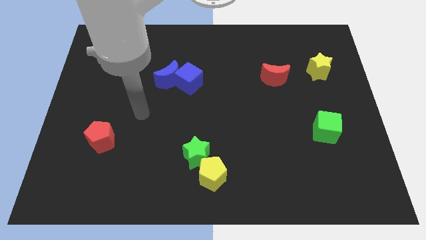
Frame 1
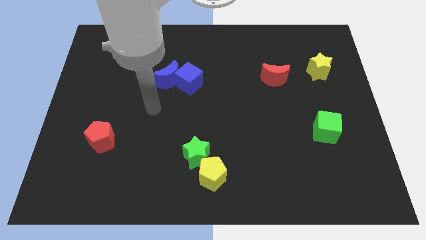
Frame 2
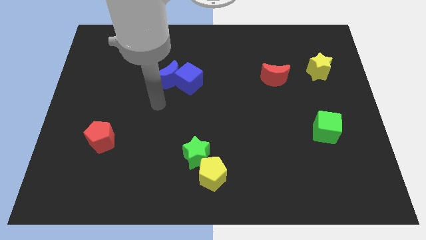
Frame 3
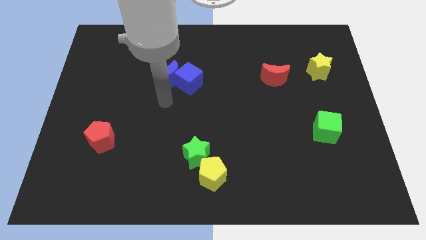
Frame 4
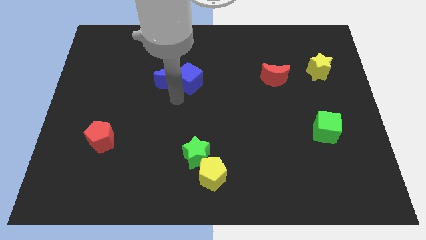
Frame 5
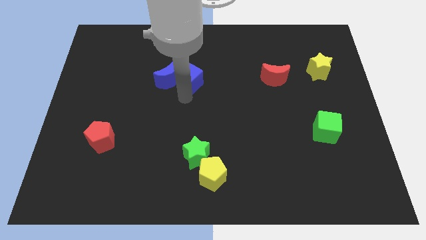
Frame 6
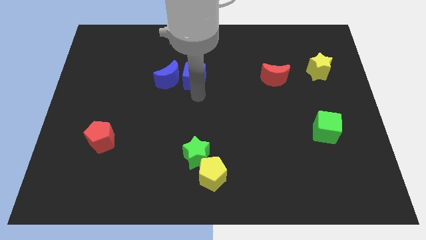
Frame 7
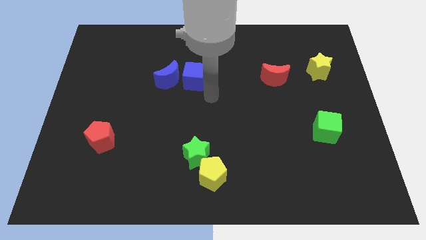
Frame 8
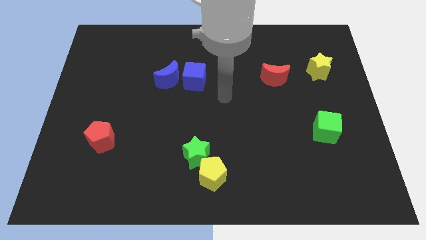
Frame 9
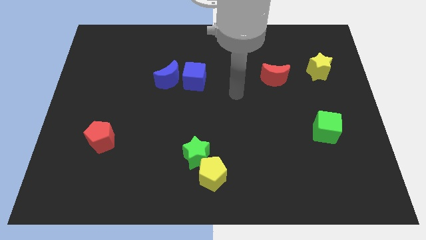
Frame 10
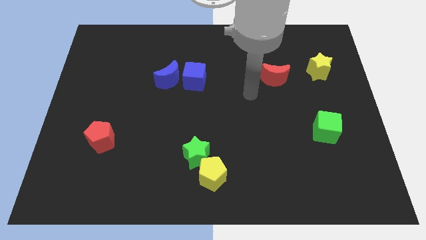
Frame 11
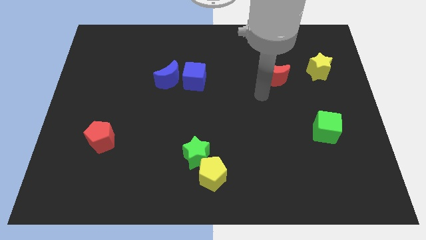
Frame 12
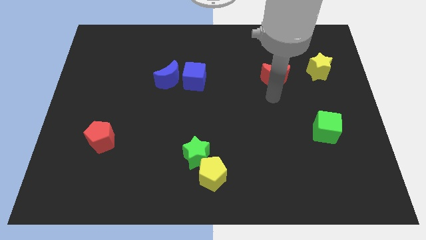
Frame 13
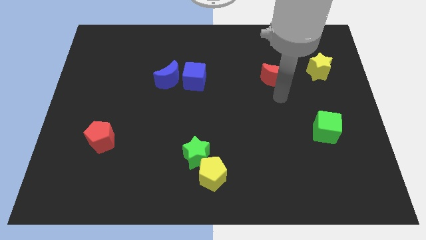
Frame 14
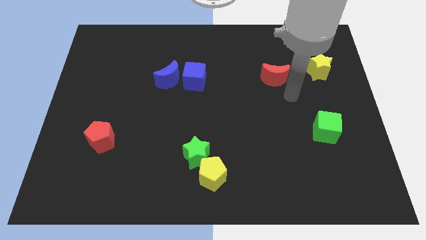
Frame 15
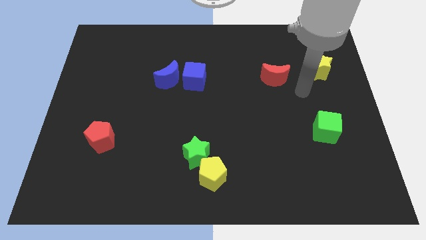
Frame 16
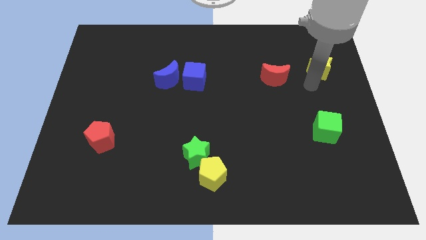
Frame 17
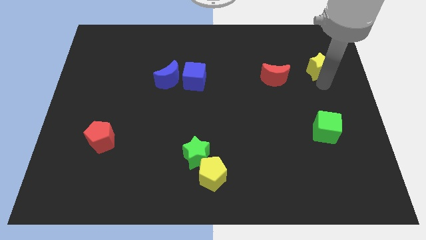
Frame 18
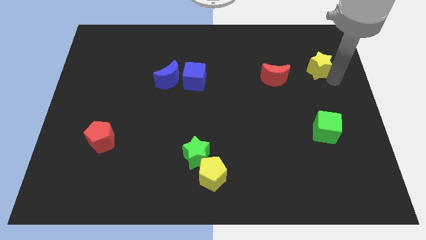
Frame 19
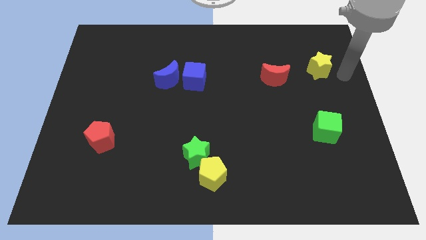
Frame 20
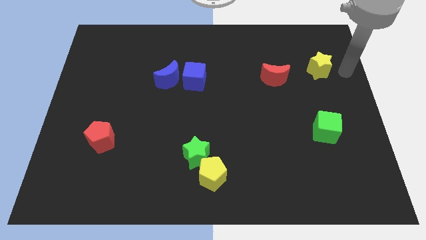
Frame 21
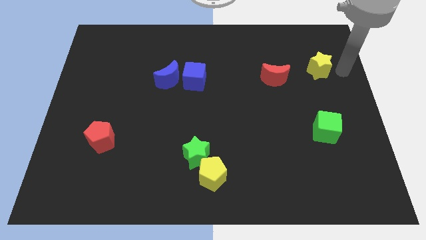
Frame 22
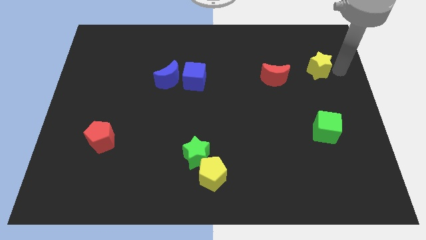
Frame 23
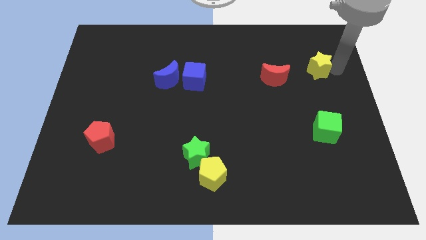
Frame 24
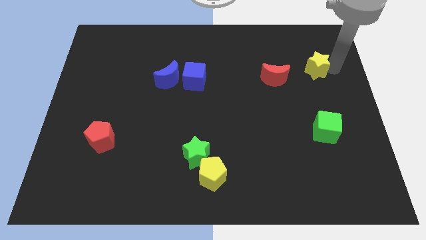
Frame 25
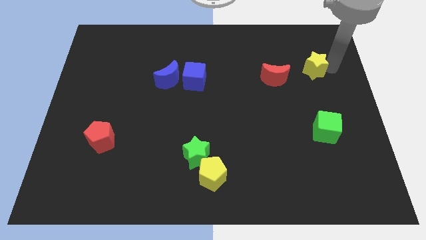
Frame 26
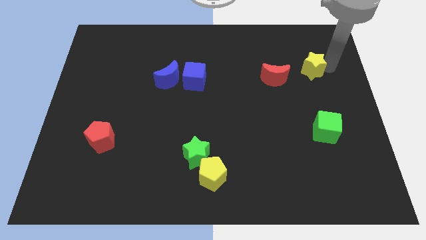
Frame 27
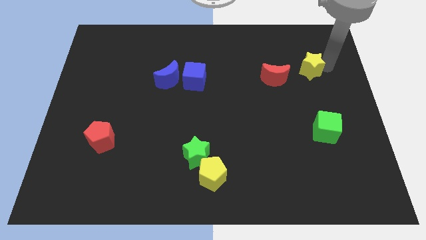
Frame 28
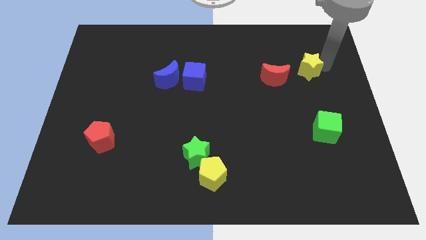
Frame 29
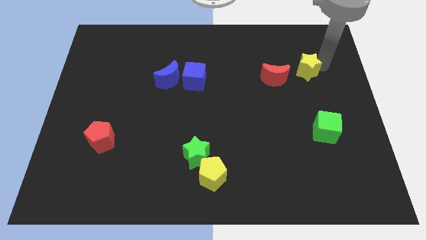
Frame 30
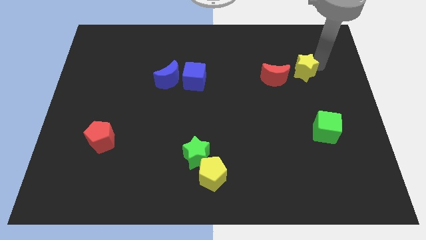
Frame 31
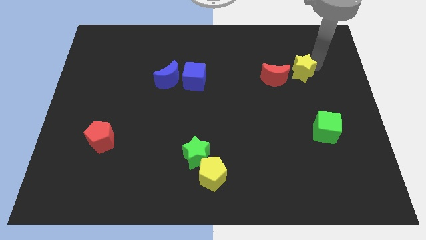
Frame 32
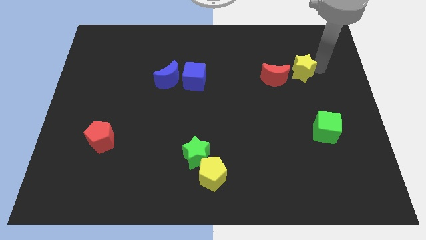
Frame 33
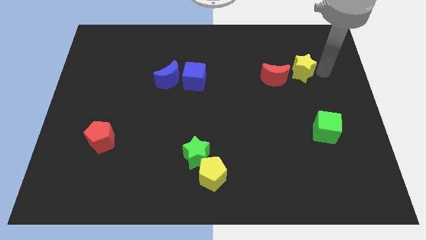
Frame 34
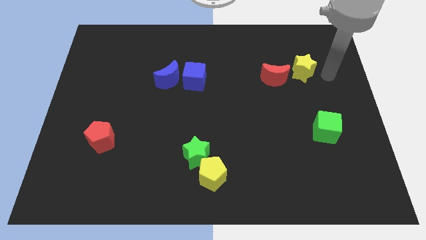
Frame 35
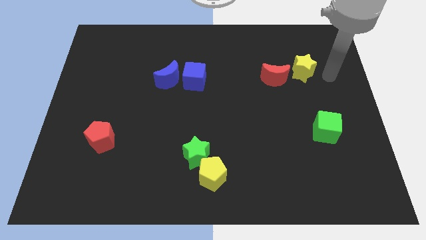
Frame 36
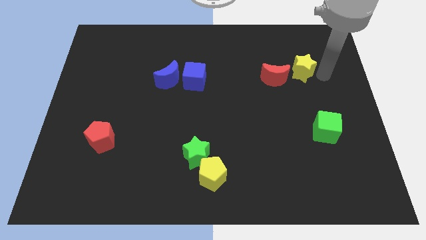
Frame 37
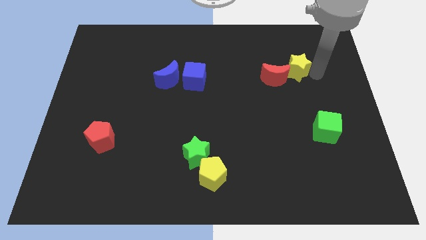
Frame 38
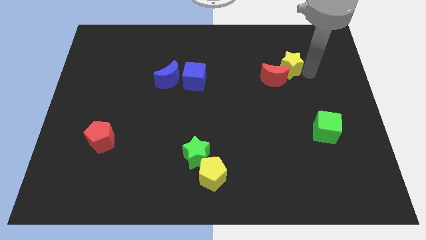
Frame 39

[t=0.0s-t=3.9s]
slightly slide the yellow star to the left

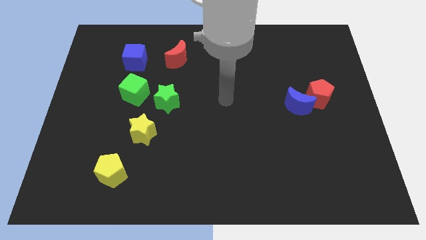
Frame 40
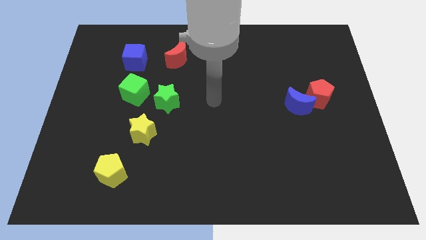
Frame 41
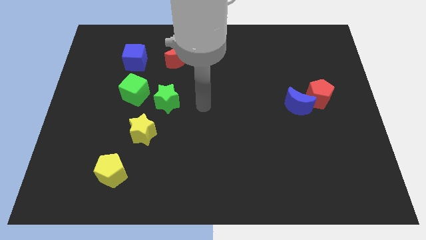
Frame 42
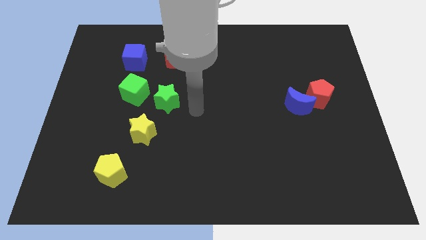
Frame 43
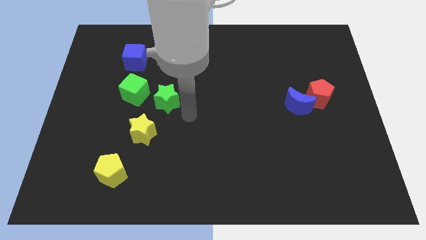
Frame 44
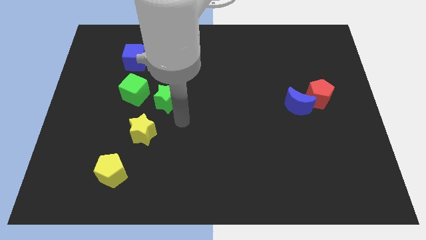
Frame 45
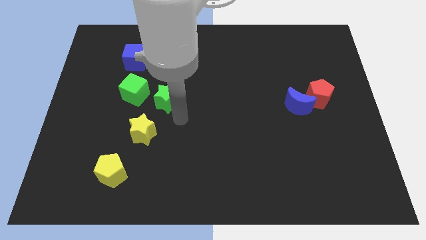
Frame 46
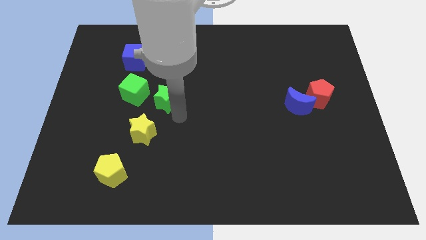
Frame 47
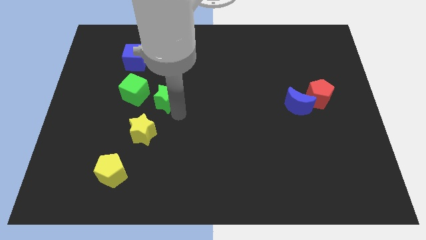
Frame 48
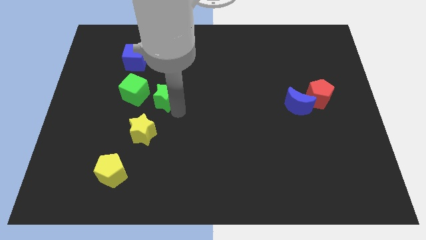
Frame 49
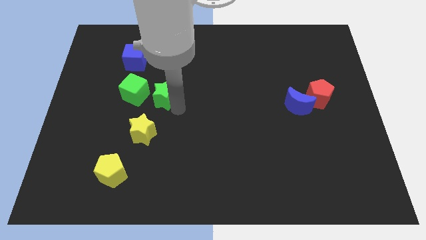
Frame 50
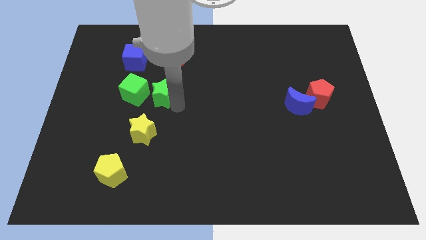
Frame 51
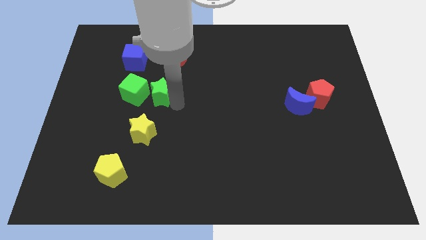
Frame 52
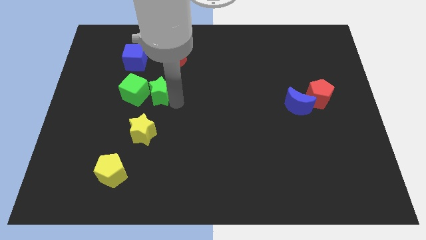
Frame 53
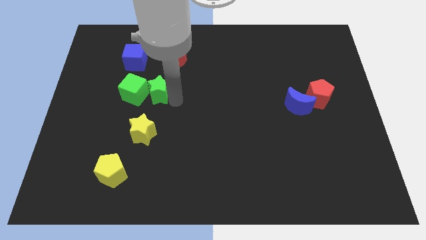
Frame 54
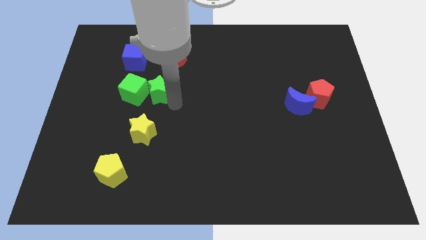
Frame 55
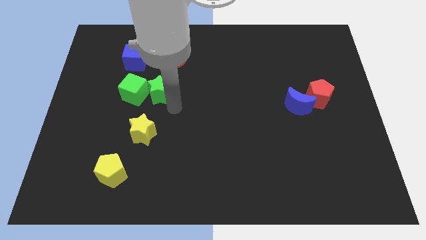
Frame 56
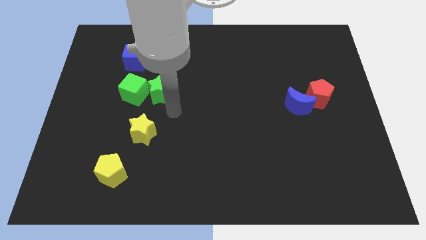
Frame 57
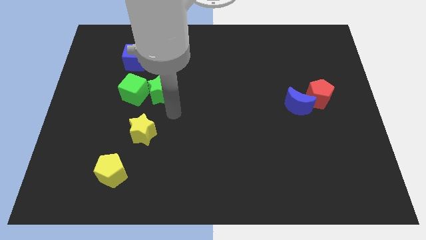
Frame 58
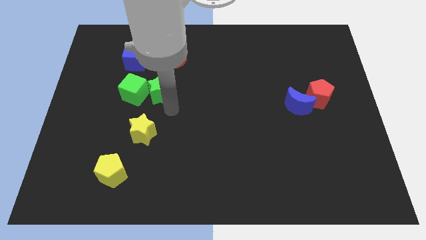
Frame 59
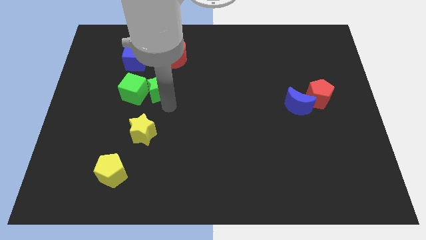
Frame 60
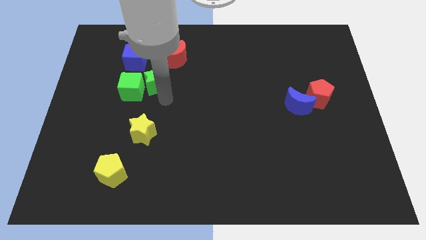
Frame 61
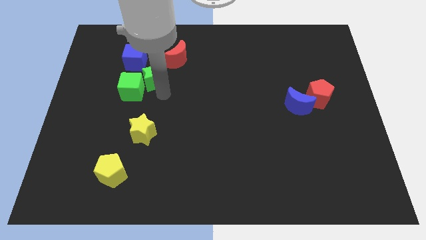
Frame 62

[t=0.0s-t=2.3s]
slide the green star up and then to the left somewhat

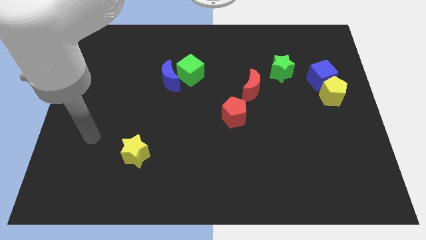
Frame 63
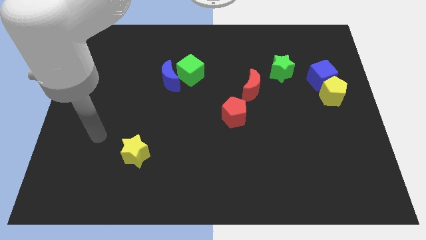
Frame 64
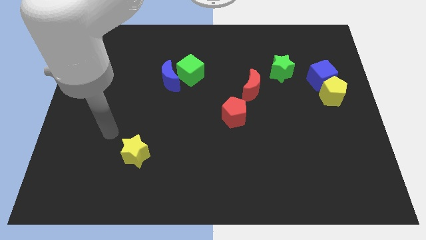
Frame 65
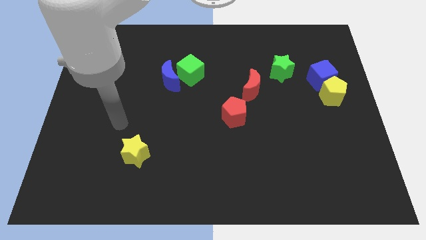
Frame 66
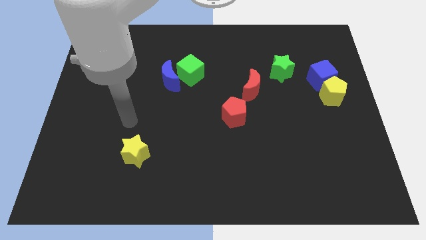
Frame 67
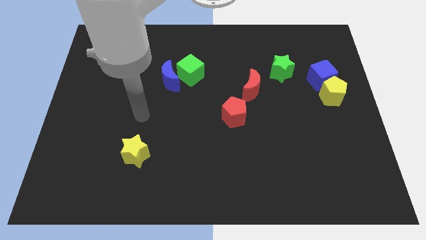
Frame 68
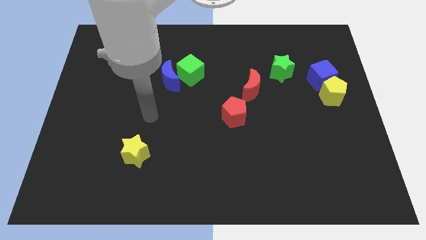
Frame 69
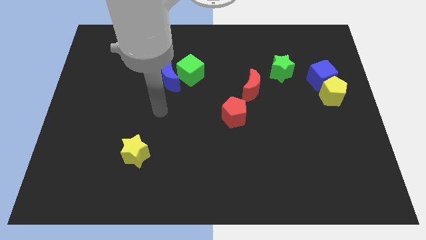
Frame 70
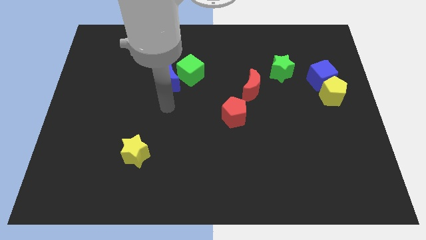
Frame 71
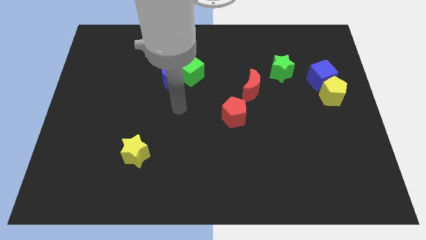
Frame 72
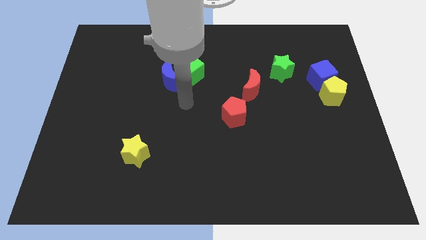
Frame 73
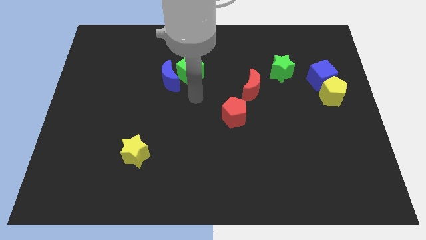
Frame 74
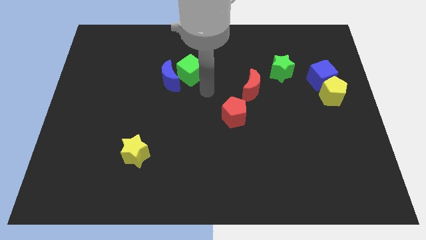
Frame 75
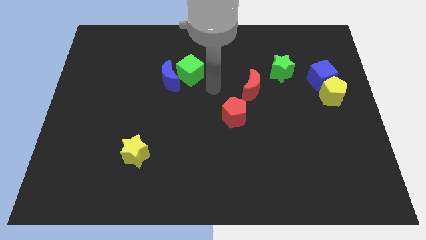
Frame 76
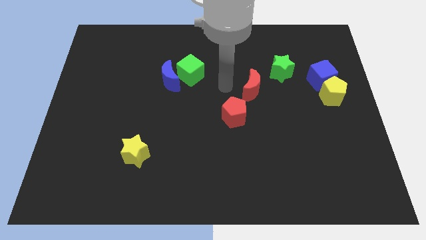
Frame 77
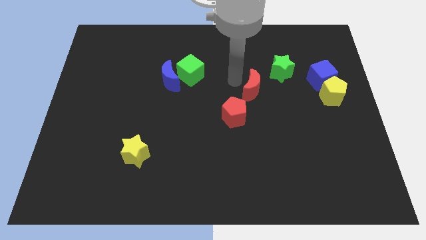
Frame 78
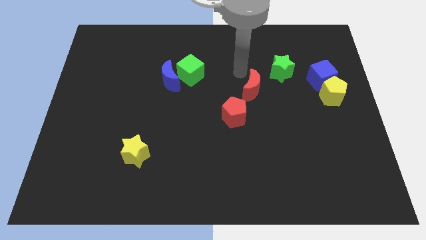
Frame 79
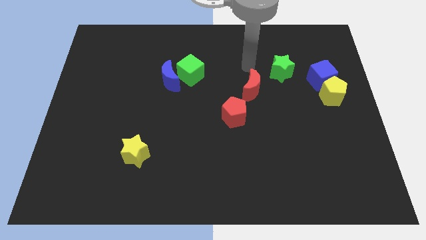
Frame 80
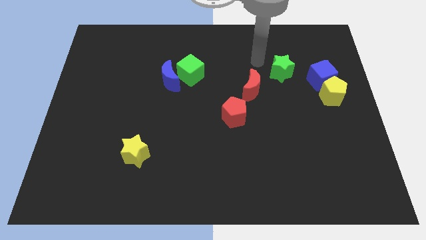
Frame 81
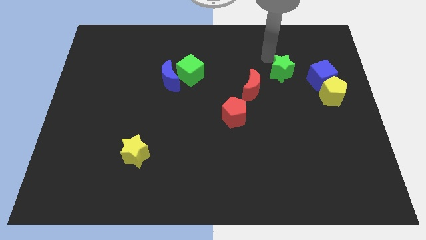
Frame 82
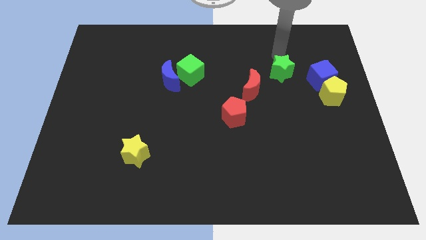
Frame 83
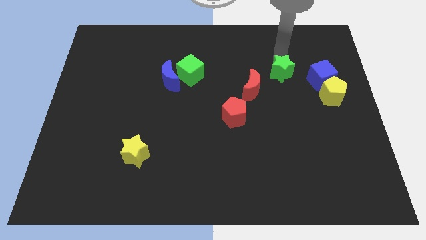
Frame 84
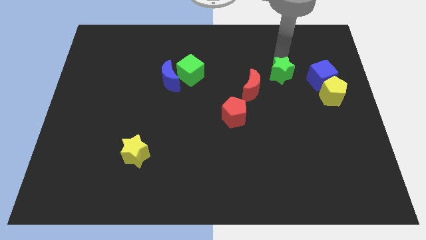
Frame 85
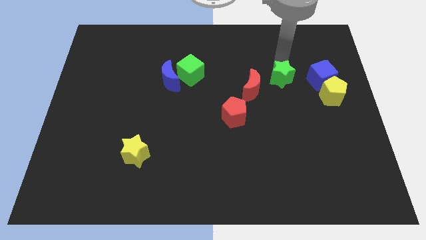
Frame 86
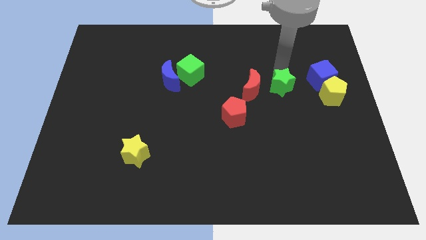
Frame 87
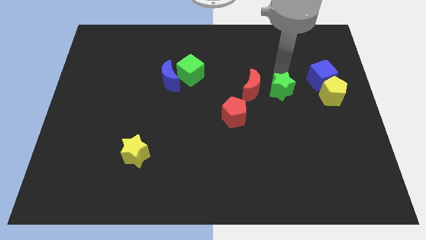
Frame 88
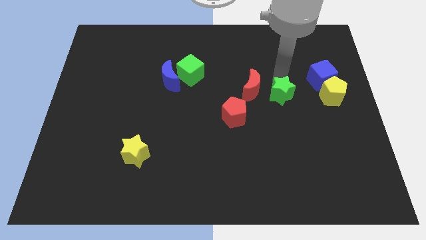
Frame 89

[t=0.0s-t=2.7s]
slightly move the green star downwards
